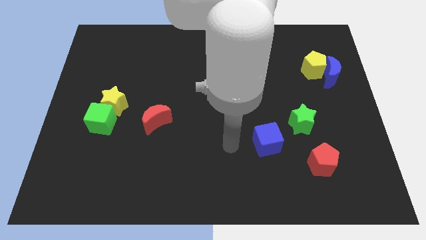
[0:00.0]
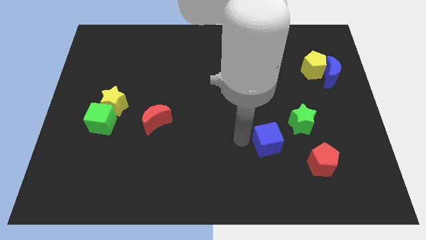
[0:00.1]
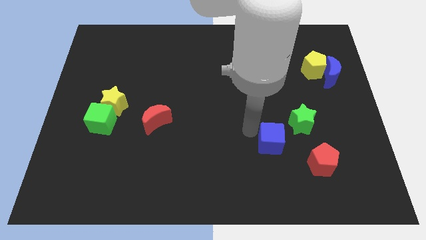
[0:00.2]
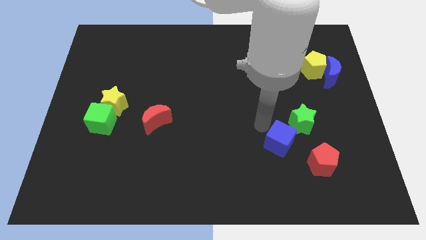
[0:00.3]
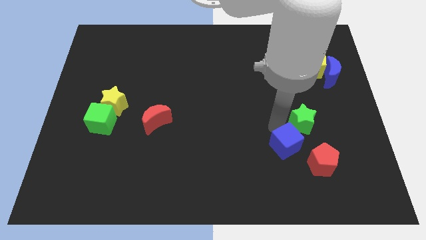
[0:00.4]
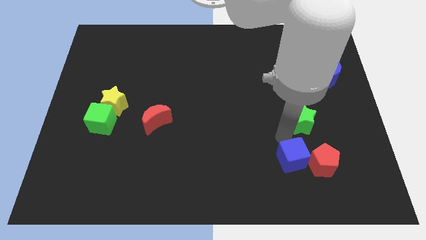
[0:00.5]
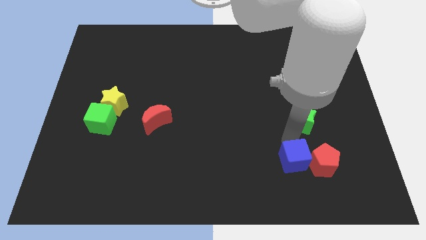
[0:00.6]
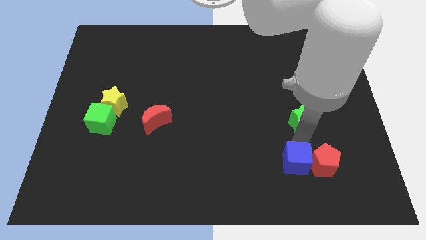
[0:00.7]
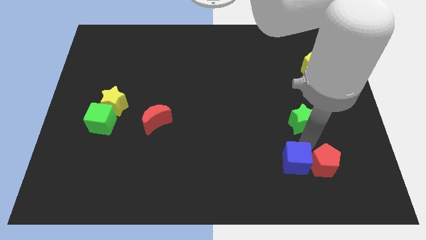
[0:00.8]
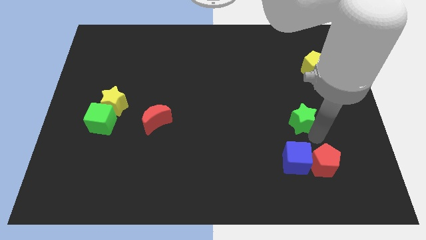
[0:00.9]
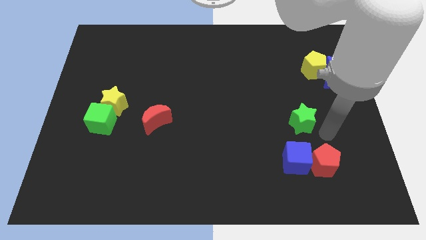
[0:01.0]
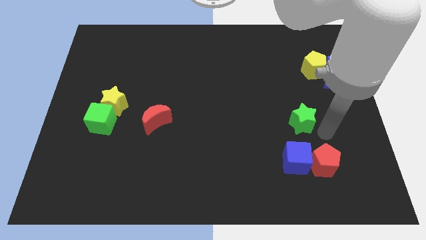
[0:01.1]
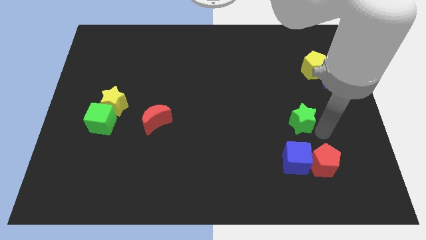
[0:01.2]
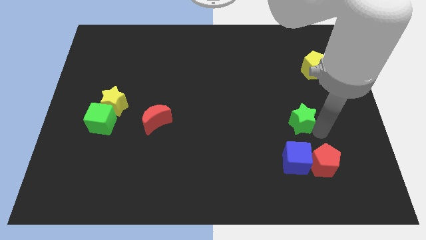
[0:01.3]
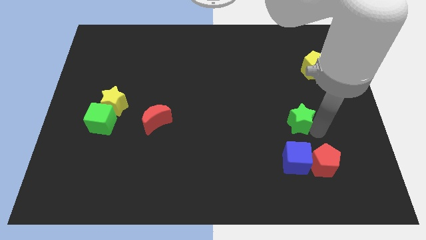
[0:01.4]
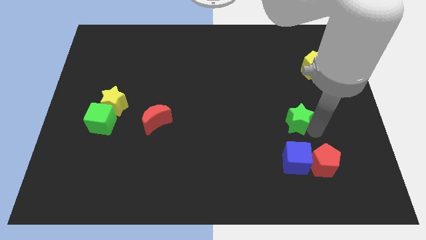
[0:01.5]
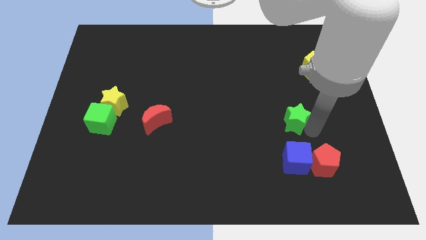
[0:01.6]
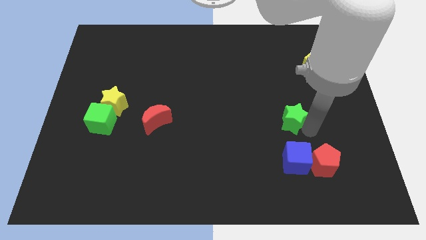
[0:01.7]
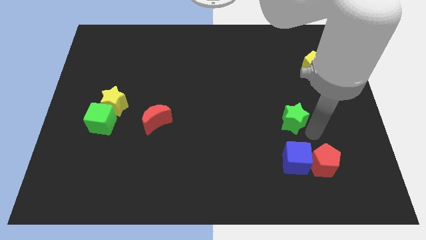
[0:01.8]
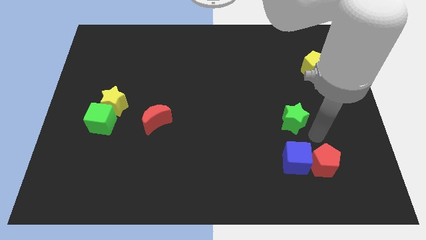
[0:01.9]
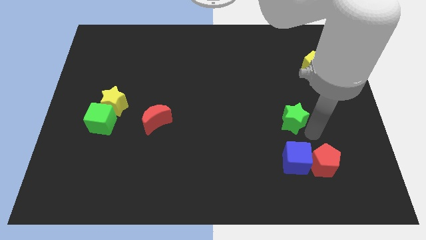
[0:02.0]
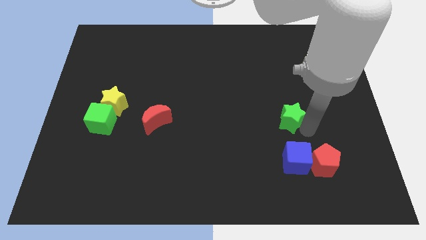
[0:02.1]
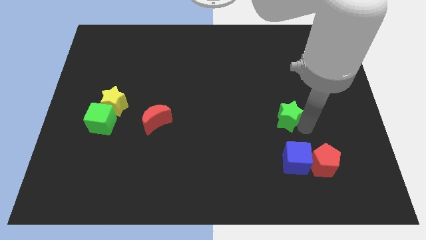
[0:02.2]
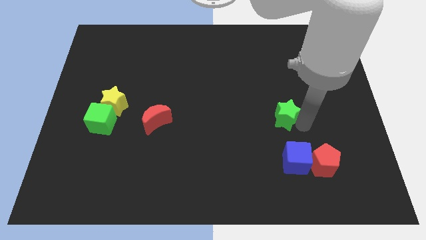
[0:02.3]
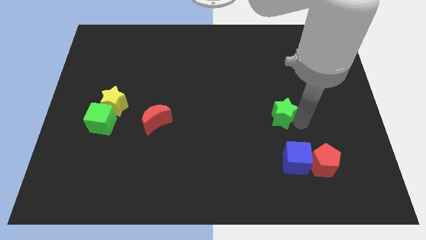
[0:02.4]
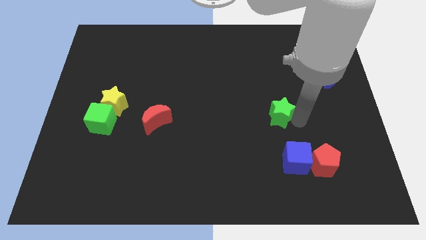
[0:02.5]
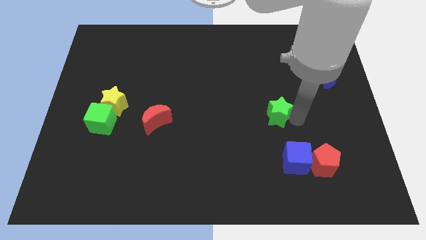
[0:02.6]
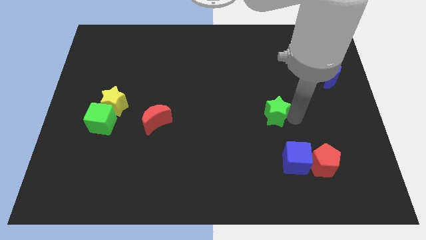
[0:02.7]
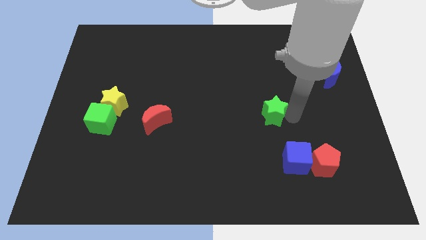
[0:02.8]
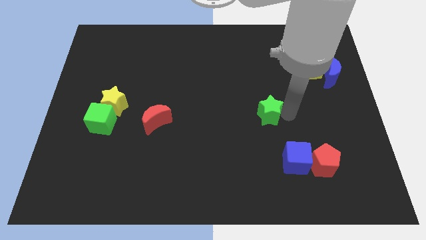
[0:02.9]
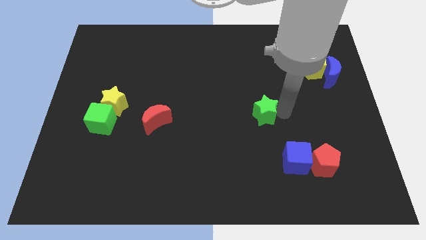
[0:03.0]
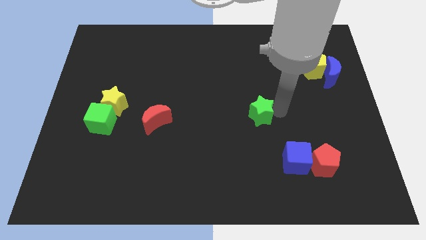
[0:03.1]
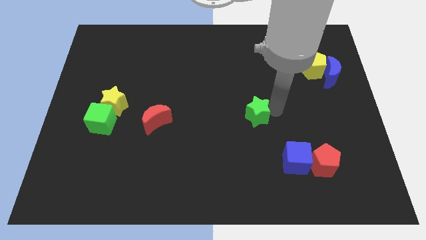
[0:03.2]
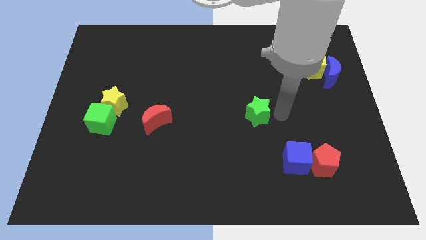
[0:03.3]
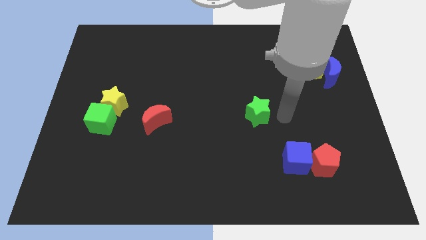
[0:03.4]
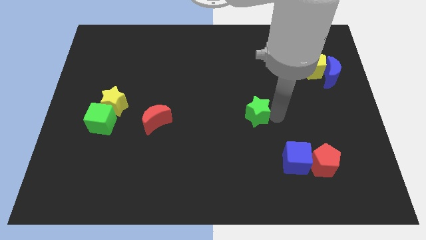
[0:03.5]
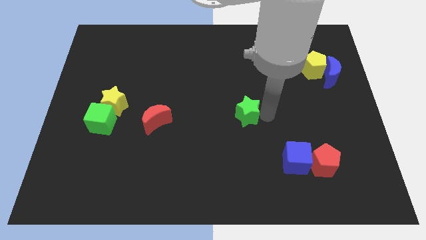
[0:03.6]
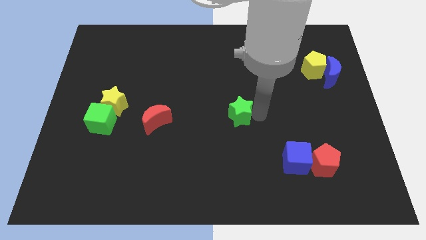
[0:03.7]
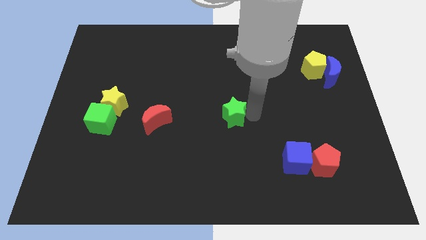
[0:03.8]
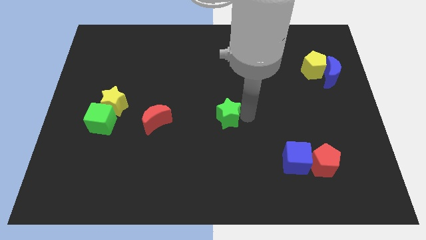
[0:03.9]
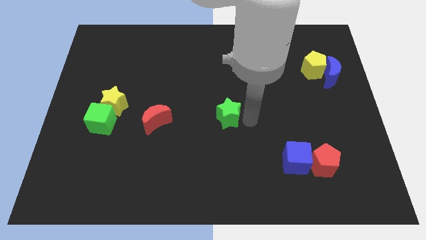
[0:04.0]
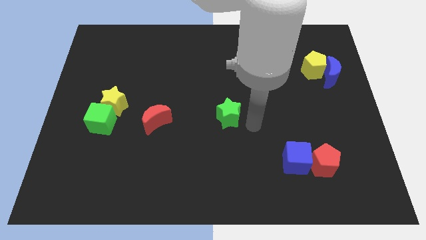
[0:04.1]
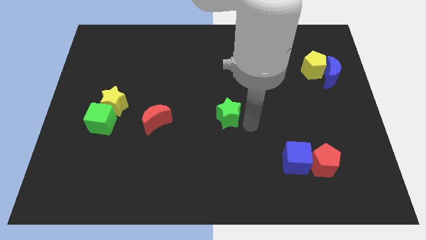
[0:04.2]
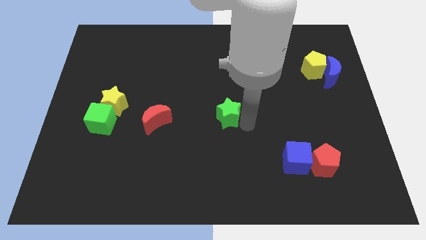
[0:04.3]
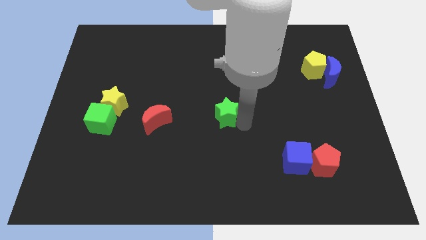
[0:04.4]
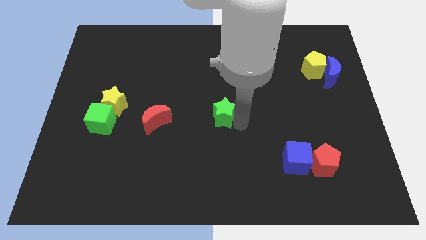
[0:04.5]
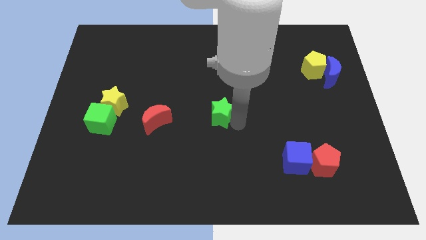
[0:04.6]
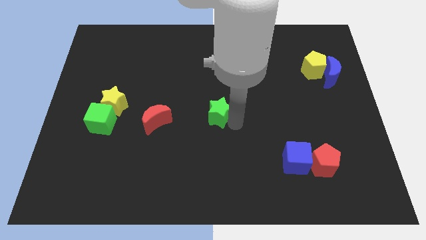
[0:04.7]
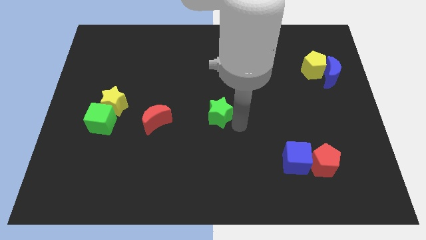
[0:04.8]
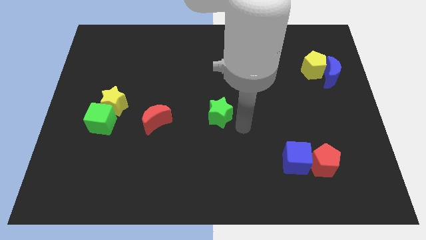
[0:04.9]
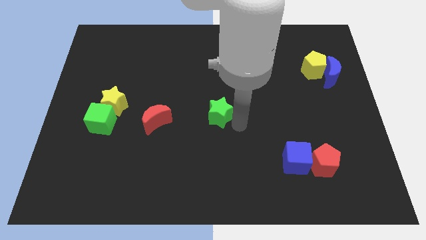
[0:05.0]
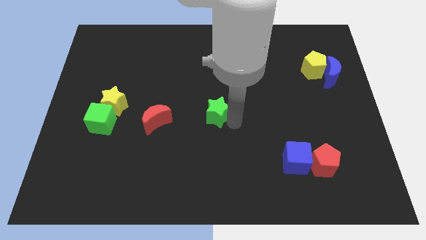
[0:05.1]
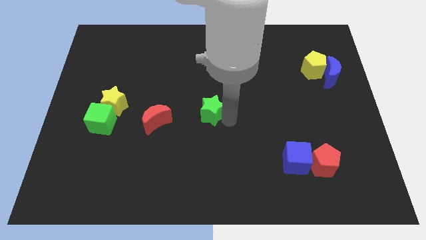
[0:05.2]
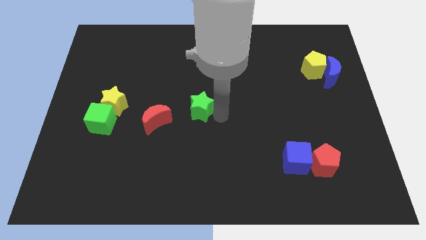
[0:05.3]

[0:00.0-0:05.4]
slide the green star to the top right of the red moon

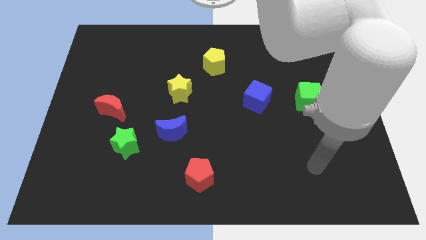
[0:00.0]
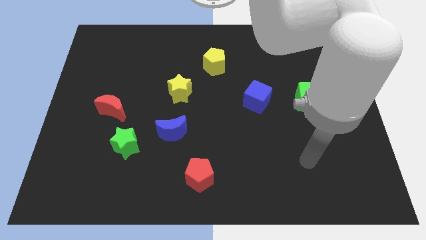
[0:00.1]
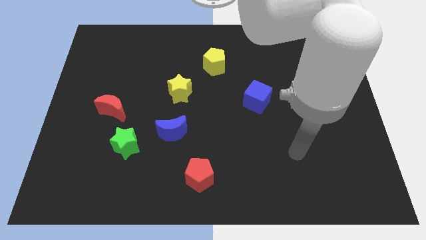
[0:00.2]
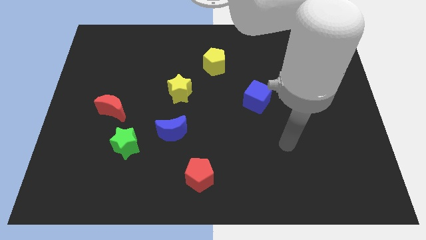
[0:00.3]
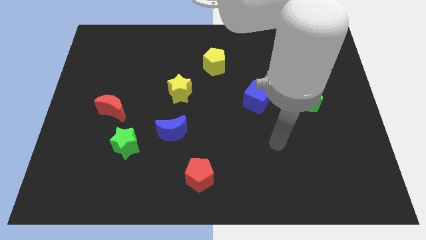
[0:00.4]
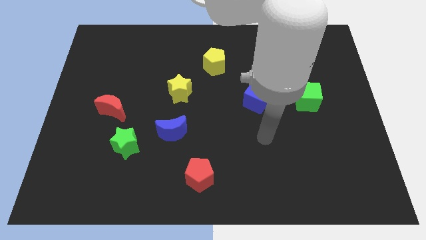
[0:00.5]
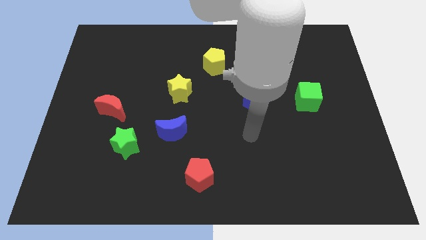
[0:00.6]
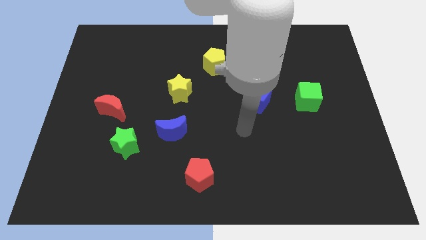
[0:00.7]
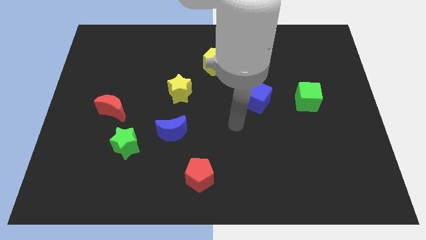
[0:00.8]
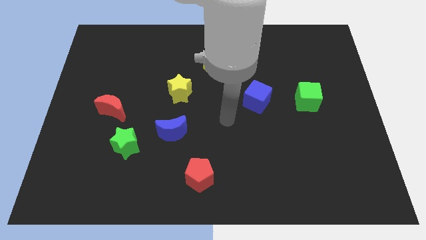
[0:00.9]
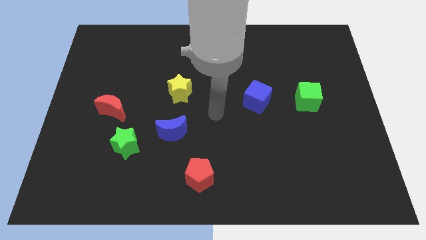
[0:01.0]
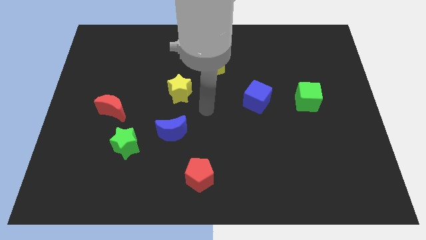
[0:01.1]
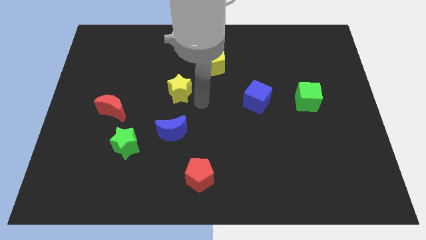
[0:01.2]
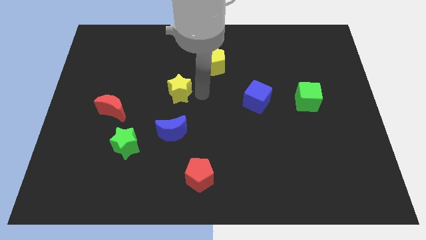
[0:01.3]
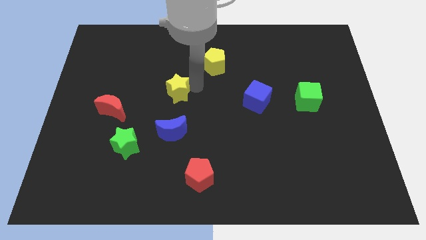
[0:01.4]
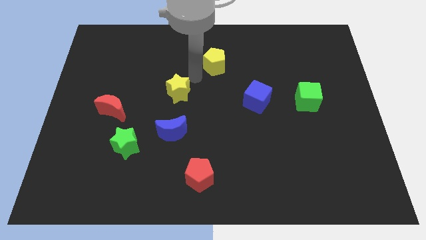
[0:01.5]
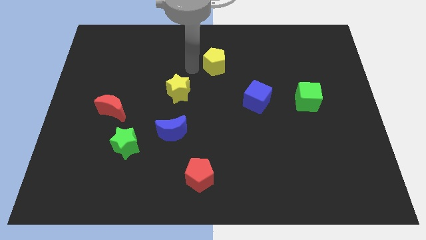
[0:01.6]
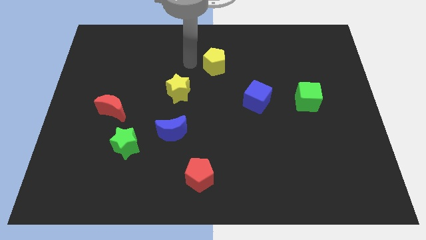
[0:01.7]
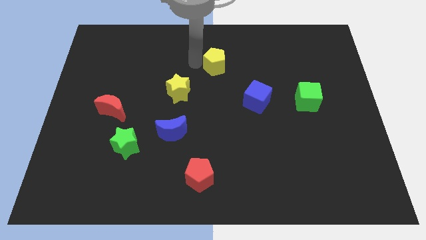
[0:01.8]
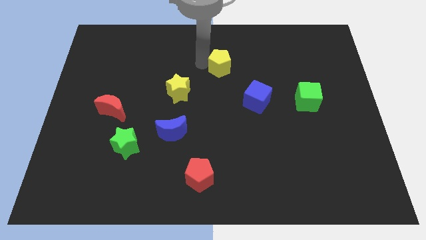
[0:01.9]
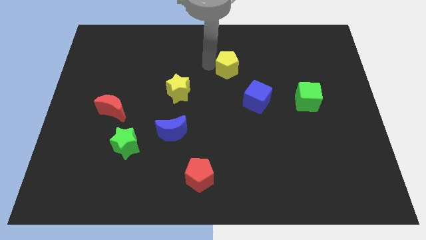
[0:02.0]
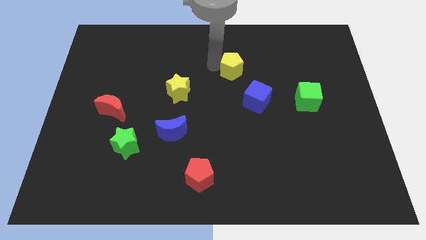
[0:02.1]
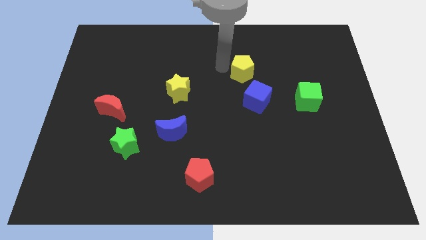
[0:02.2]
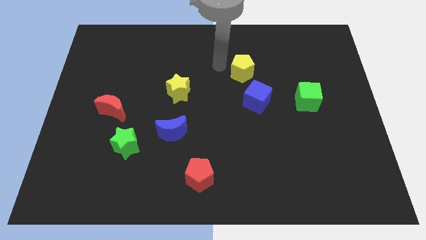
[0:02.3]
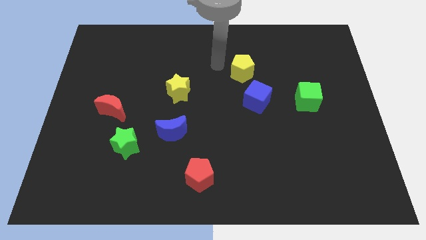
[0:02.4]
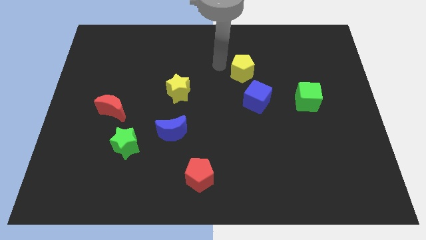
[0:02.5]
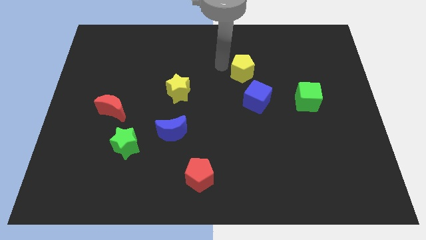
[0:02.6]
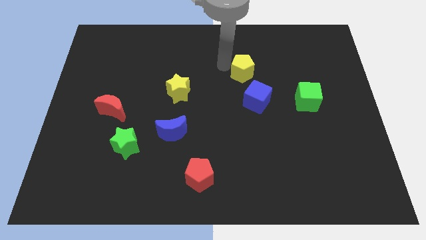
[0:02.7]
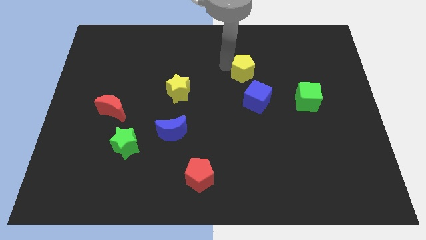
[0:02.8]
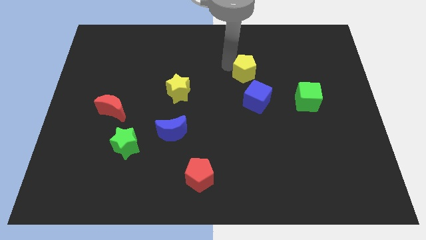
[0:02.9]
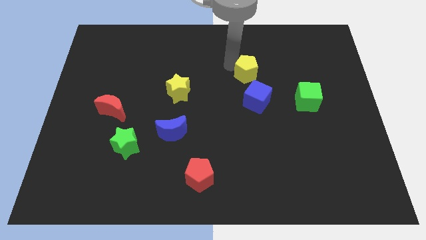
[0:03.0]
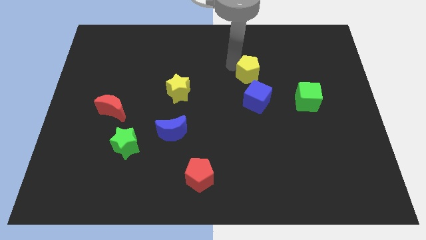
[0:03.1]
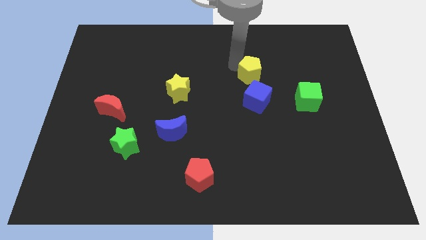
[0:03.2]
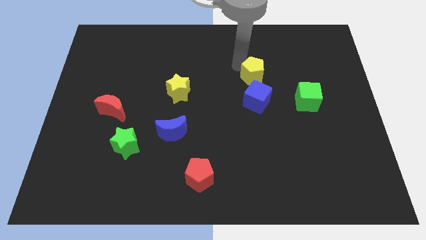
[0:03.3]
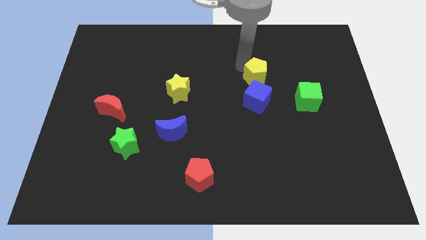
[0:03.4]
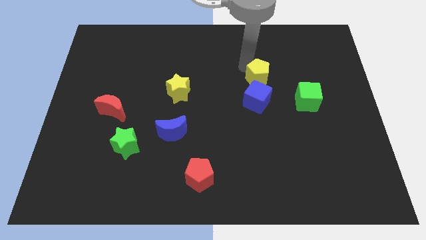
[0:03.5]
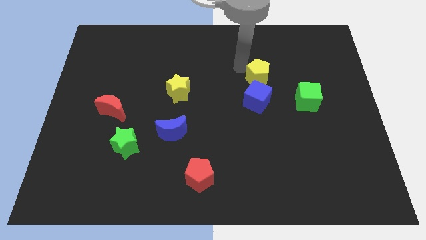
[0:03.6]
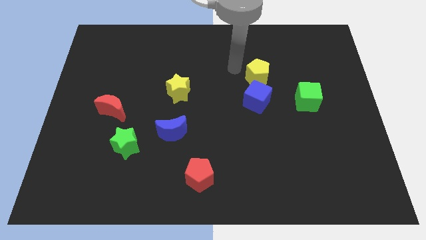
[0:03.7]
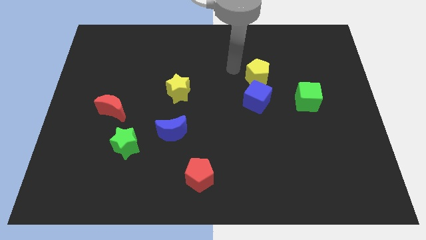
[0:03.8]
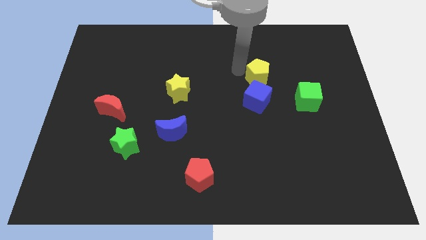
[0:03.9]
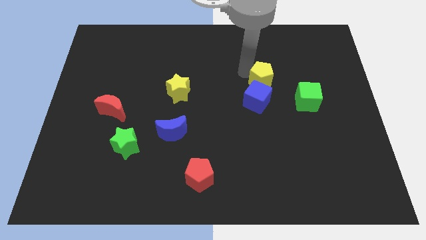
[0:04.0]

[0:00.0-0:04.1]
push the yellow pentagon diagonally up and to the left of the green cube
